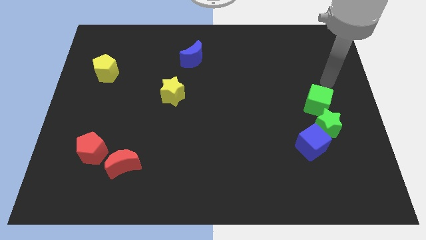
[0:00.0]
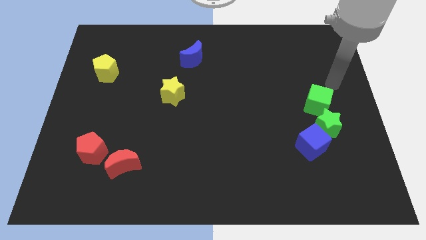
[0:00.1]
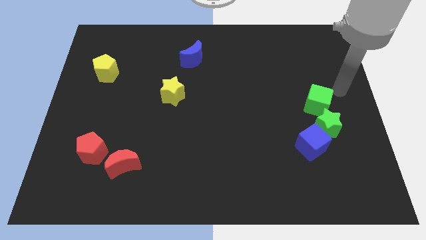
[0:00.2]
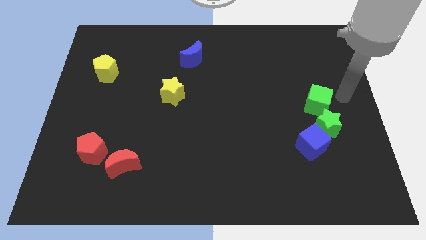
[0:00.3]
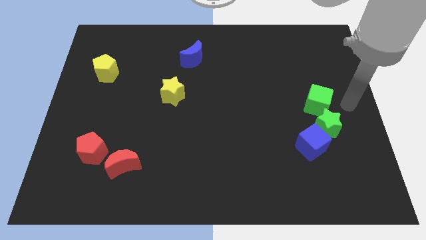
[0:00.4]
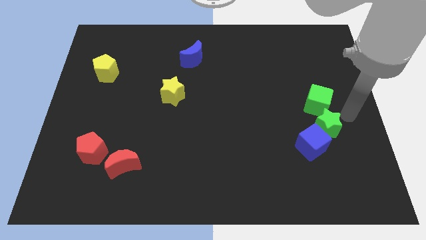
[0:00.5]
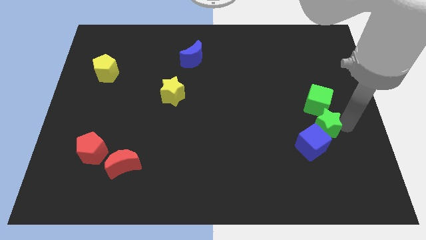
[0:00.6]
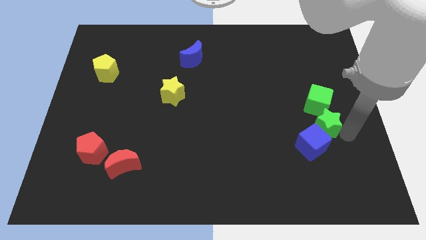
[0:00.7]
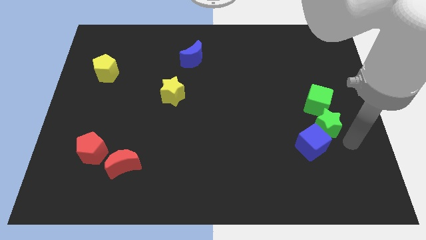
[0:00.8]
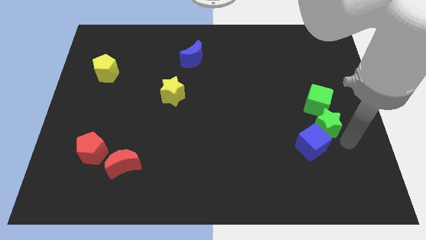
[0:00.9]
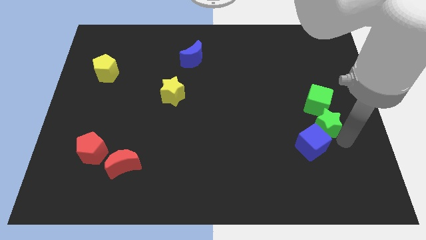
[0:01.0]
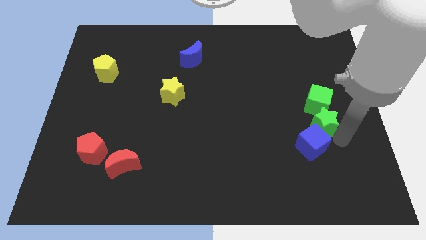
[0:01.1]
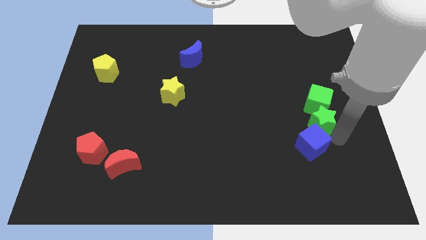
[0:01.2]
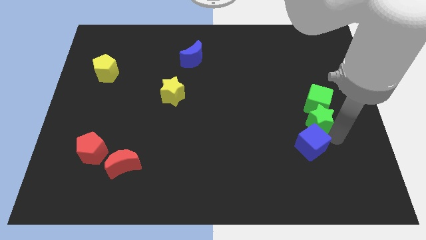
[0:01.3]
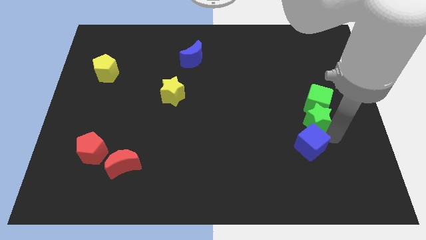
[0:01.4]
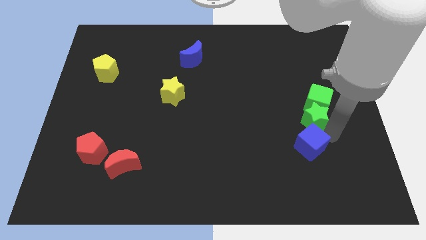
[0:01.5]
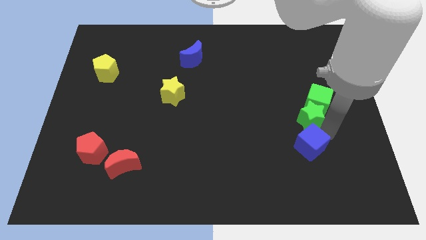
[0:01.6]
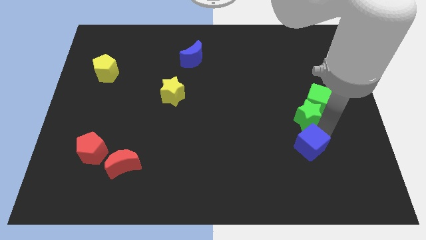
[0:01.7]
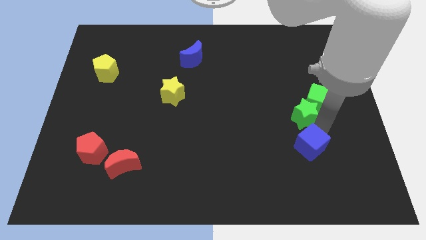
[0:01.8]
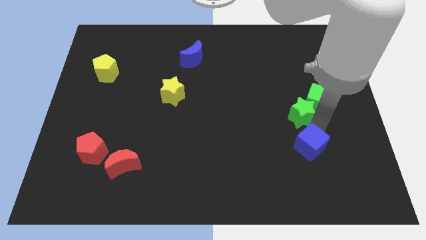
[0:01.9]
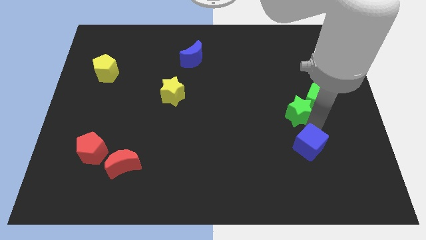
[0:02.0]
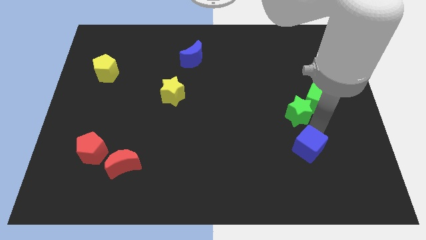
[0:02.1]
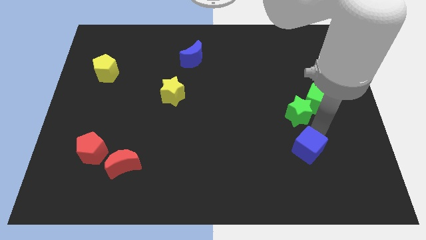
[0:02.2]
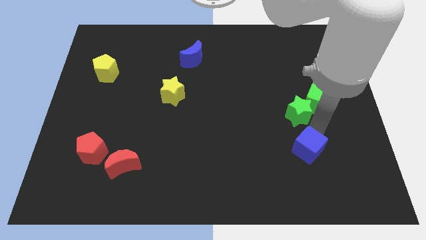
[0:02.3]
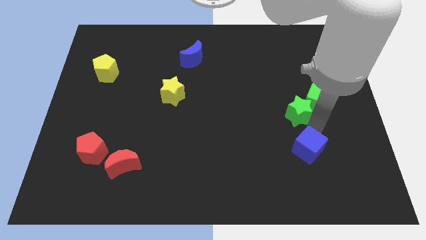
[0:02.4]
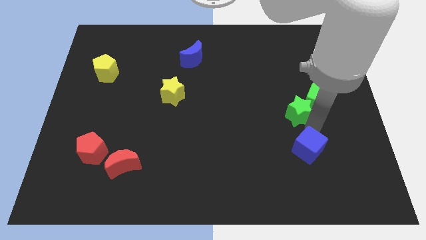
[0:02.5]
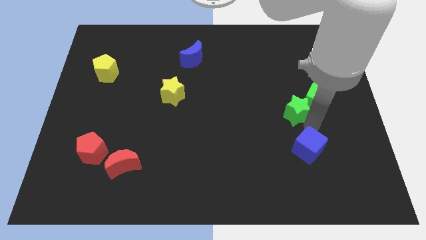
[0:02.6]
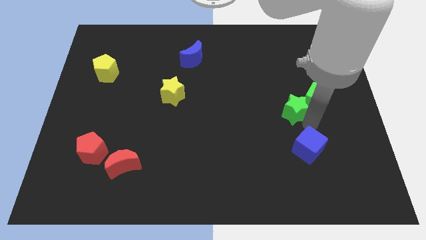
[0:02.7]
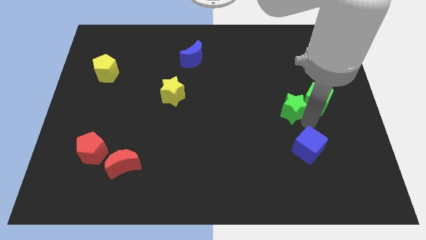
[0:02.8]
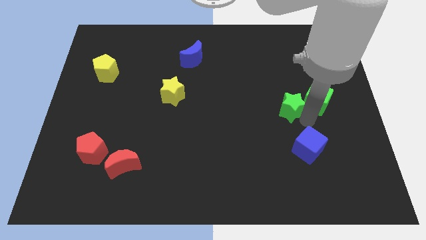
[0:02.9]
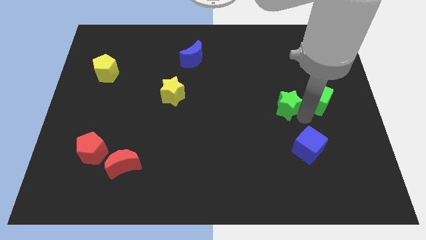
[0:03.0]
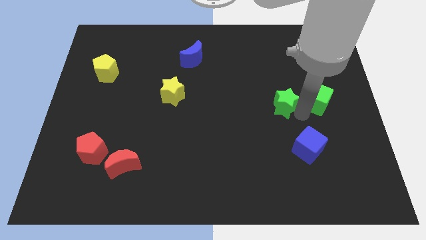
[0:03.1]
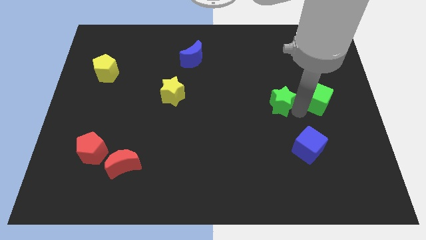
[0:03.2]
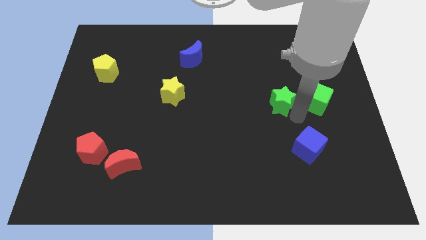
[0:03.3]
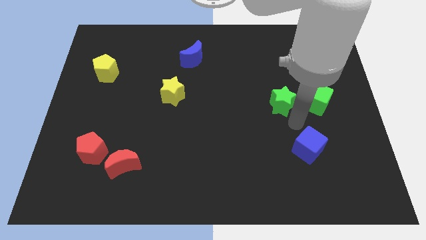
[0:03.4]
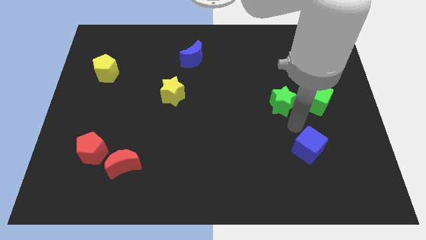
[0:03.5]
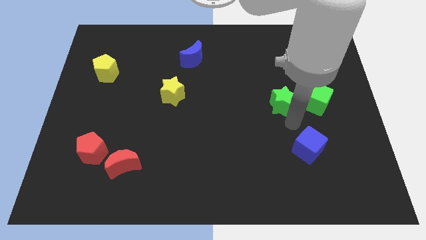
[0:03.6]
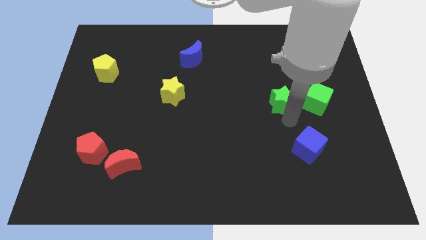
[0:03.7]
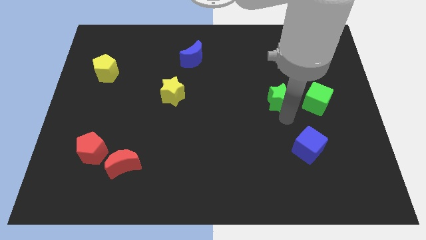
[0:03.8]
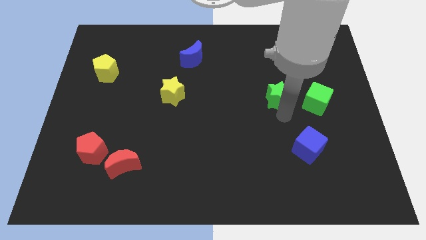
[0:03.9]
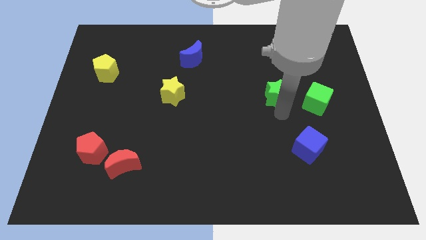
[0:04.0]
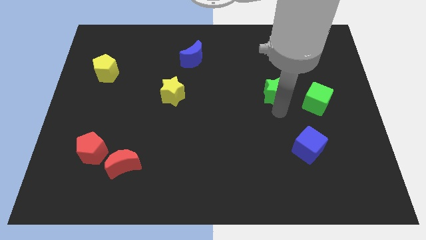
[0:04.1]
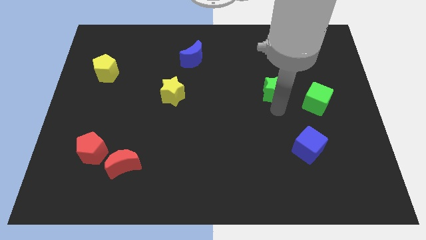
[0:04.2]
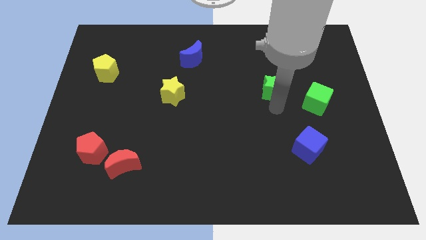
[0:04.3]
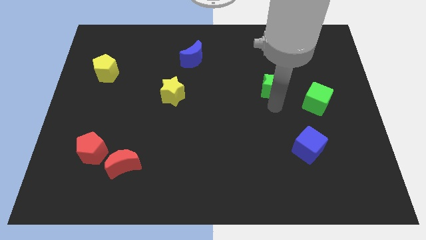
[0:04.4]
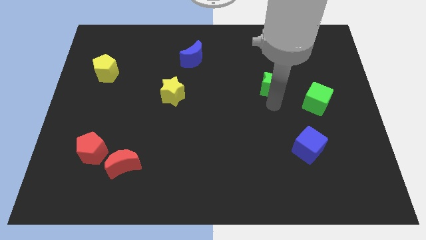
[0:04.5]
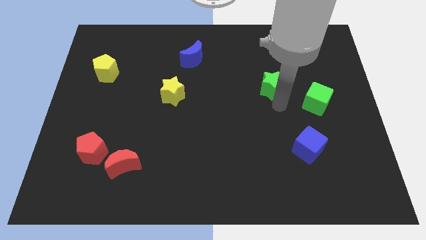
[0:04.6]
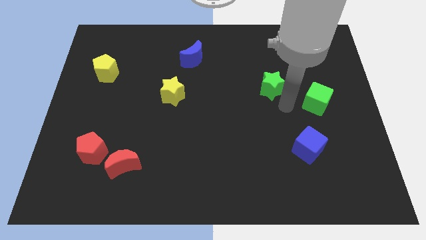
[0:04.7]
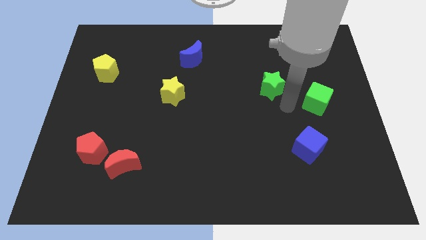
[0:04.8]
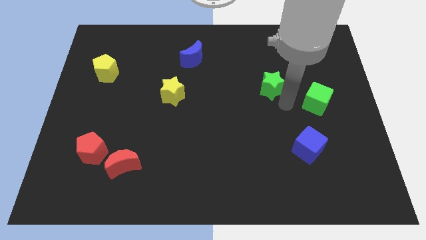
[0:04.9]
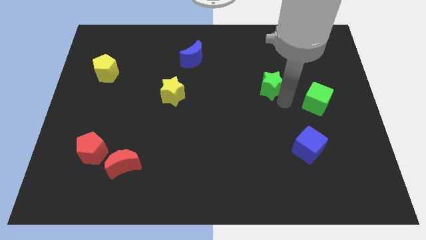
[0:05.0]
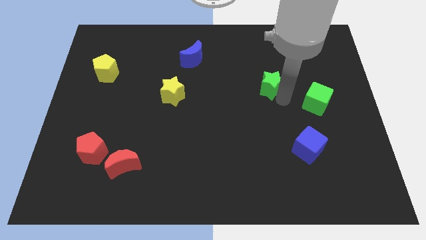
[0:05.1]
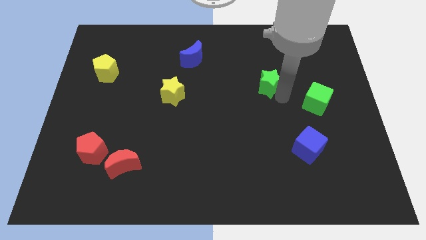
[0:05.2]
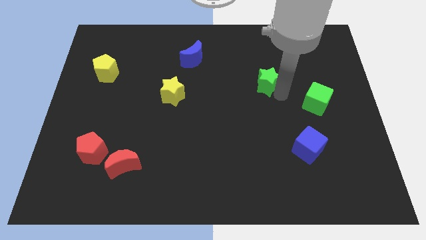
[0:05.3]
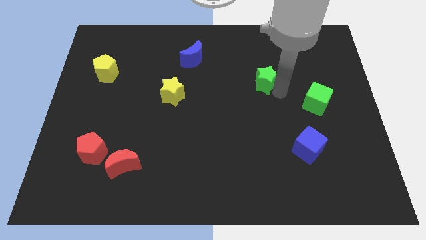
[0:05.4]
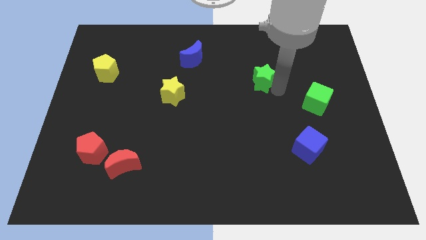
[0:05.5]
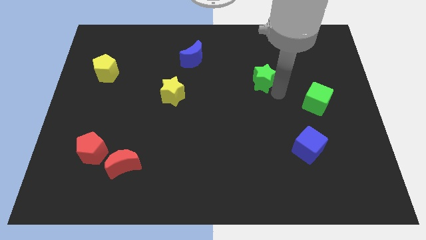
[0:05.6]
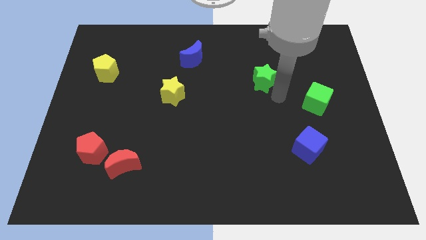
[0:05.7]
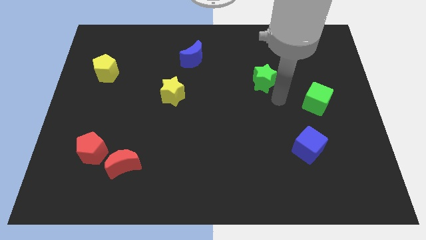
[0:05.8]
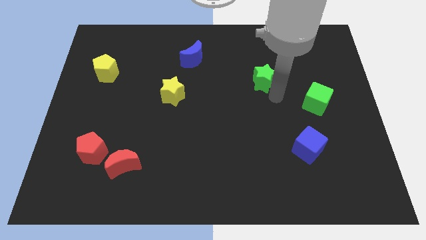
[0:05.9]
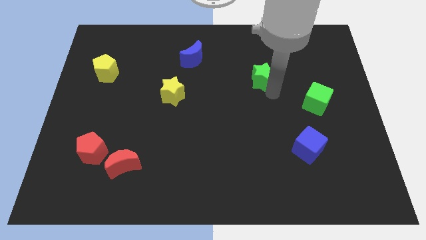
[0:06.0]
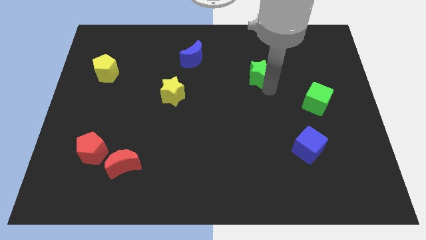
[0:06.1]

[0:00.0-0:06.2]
move the green star upwards and then to the left

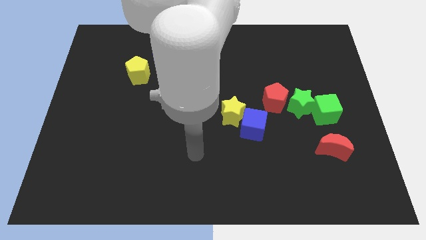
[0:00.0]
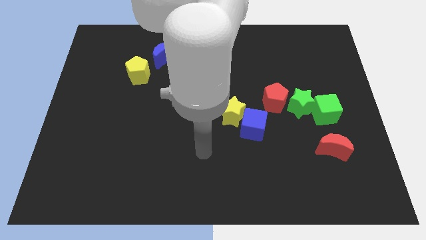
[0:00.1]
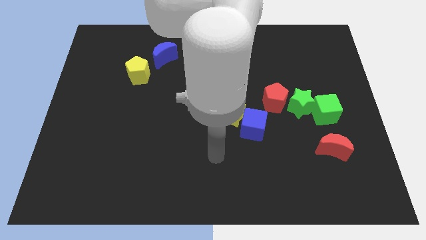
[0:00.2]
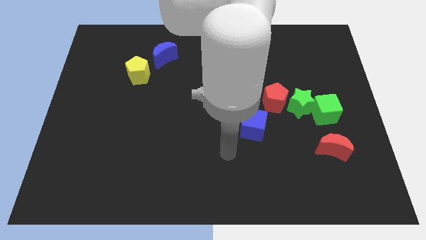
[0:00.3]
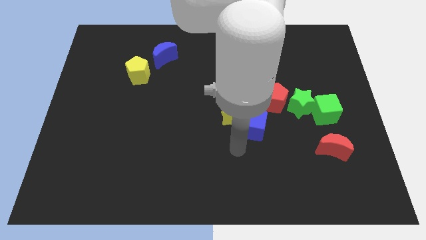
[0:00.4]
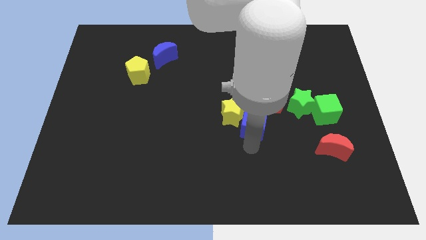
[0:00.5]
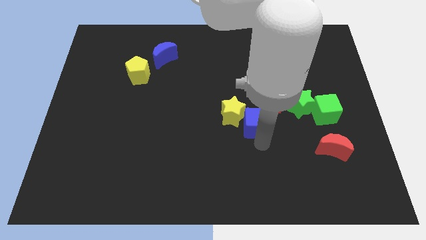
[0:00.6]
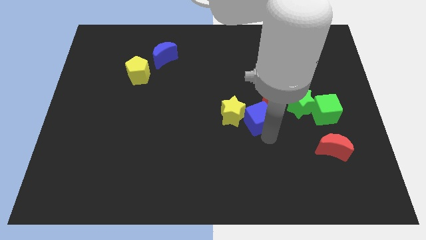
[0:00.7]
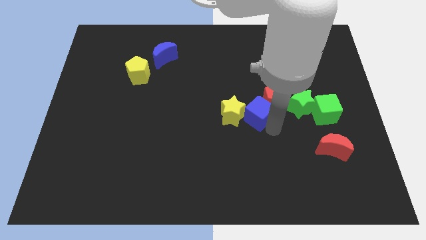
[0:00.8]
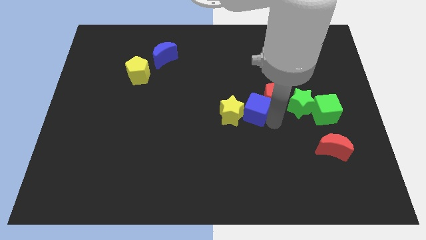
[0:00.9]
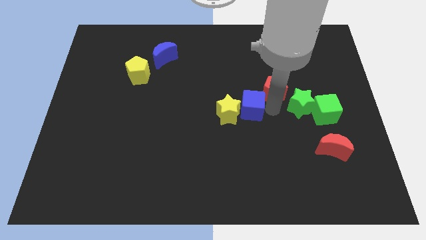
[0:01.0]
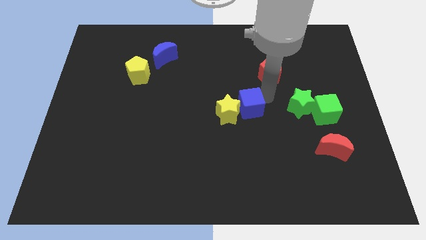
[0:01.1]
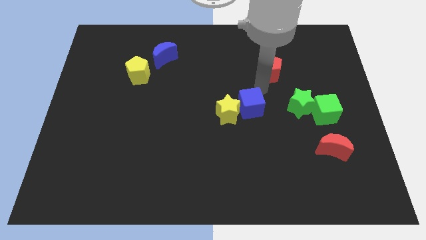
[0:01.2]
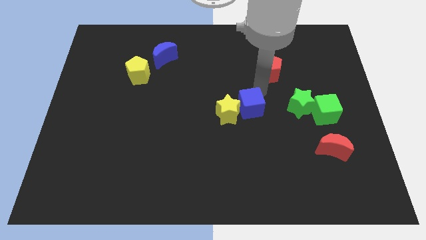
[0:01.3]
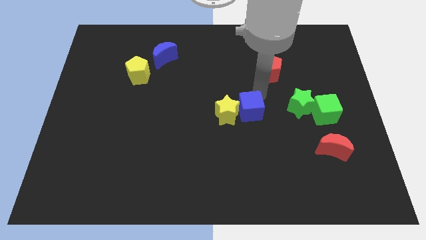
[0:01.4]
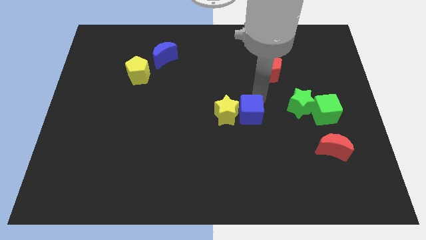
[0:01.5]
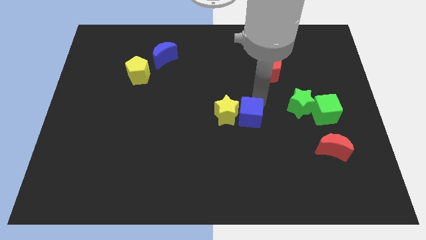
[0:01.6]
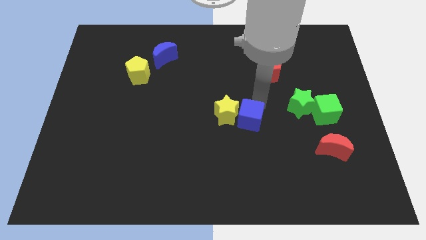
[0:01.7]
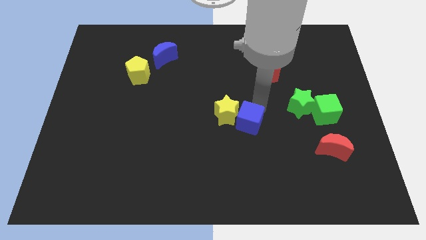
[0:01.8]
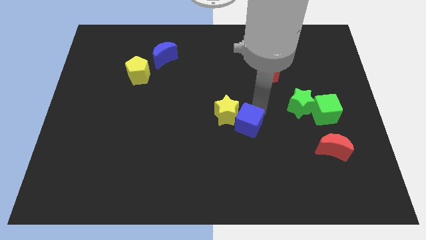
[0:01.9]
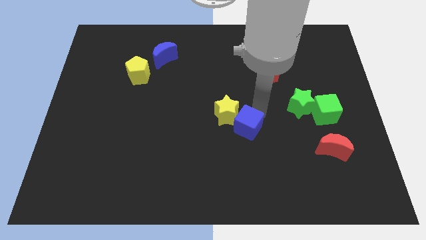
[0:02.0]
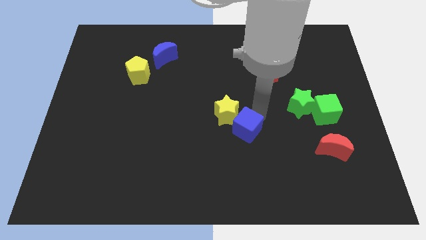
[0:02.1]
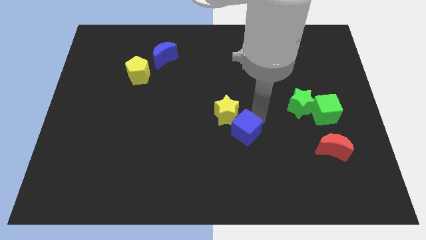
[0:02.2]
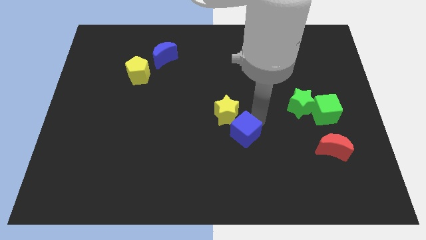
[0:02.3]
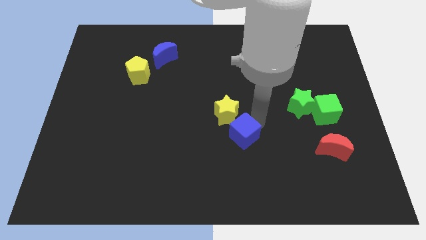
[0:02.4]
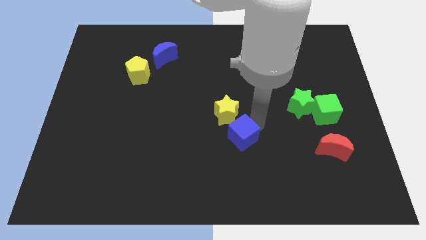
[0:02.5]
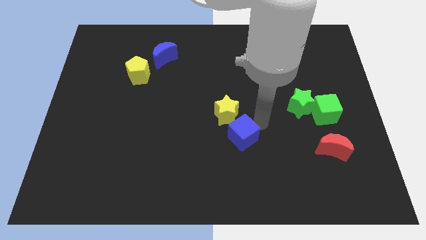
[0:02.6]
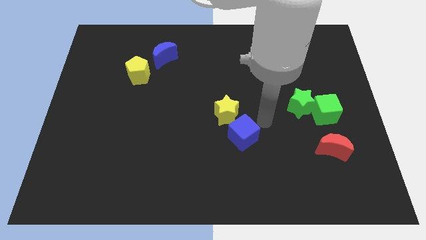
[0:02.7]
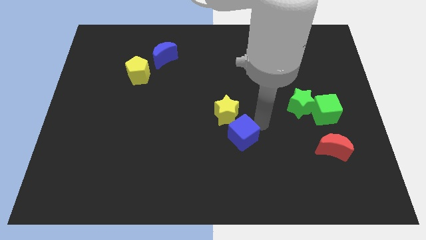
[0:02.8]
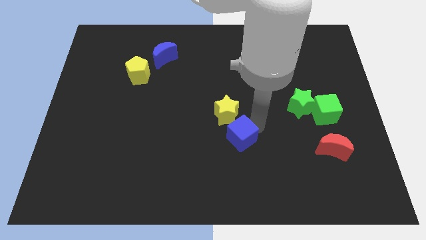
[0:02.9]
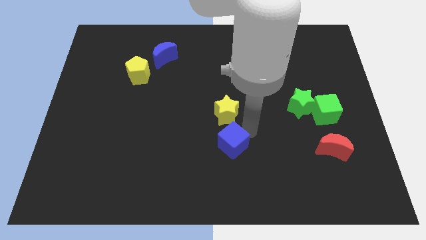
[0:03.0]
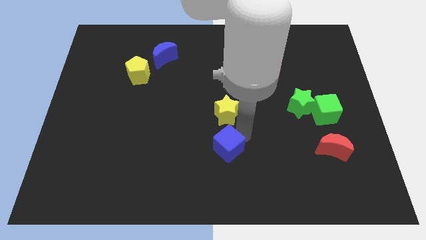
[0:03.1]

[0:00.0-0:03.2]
move the blue cube down and left slightly
